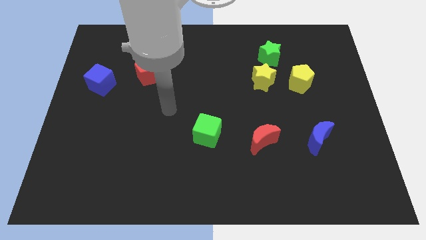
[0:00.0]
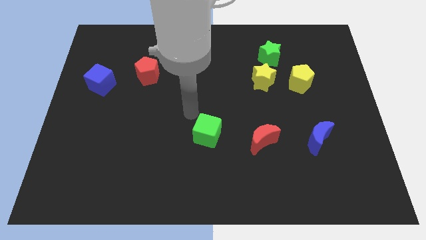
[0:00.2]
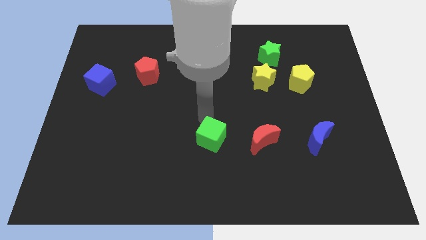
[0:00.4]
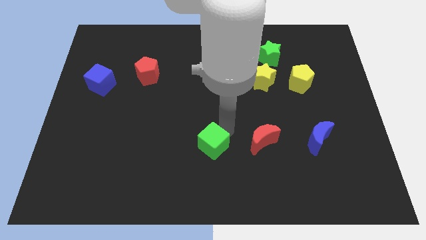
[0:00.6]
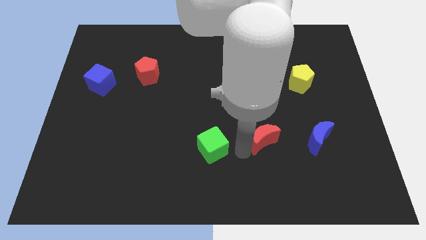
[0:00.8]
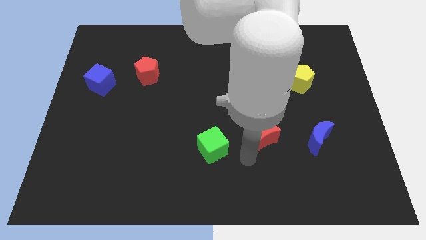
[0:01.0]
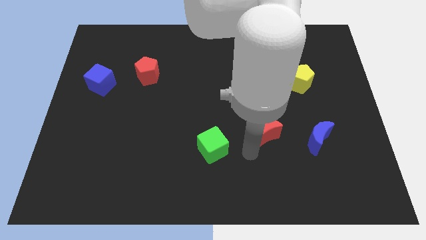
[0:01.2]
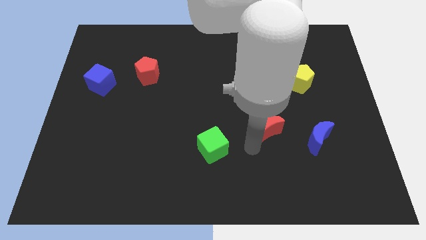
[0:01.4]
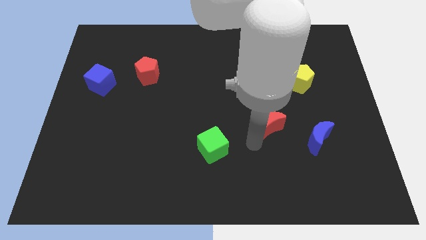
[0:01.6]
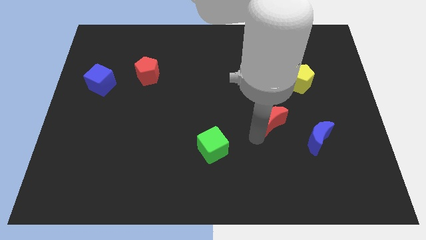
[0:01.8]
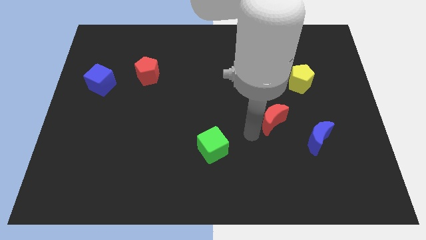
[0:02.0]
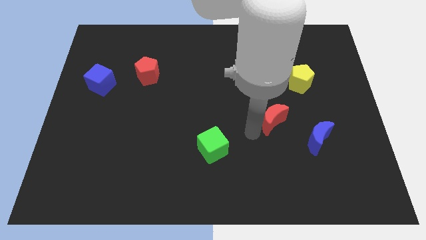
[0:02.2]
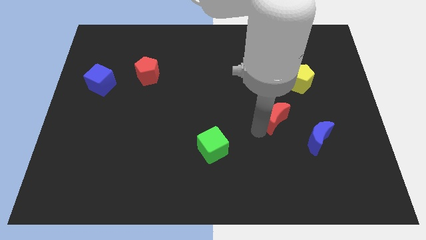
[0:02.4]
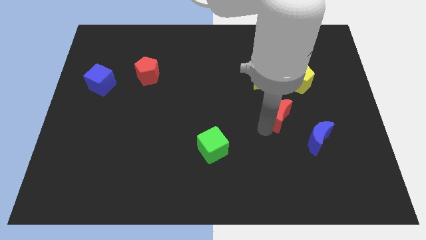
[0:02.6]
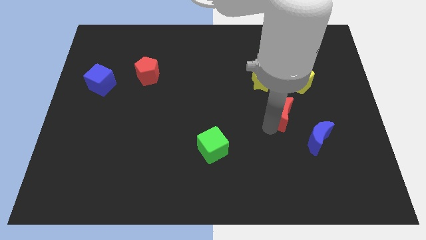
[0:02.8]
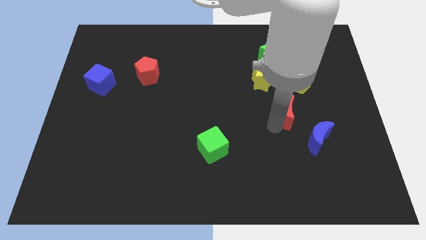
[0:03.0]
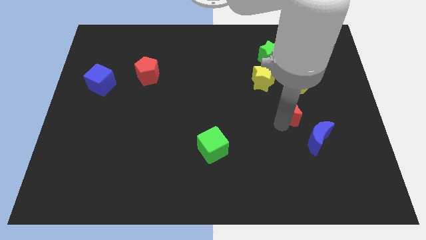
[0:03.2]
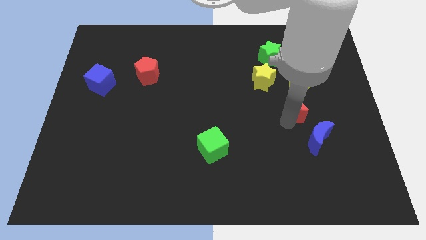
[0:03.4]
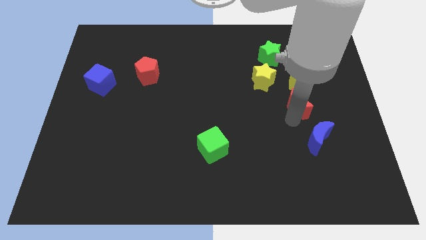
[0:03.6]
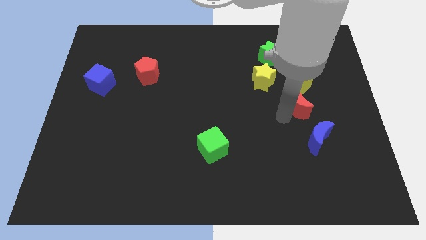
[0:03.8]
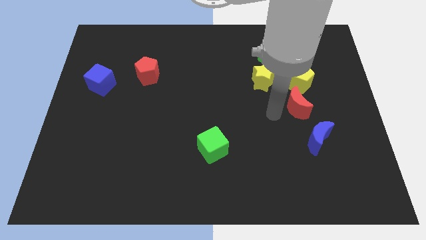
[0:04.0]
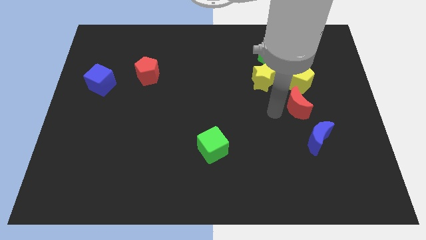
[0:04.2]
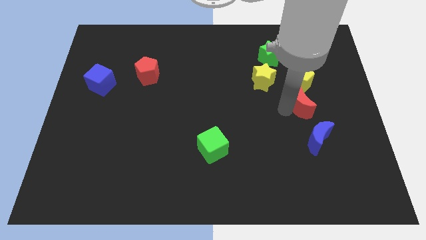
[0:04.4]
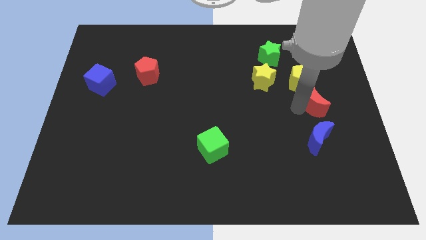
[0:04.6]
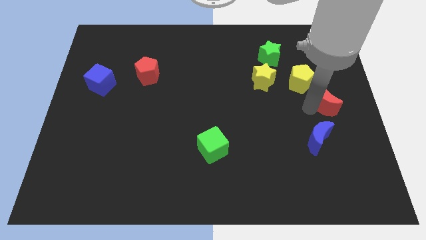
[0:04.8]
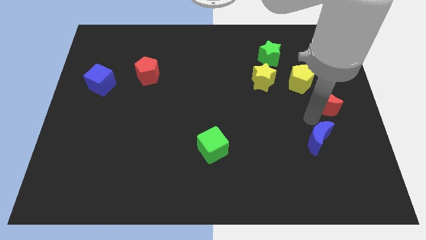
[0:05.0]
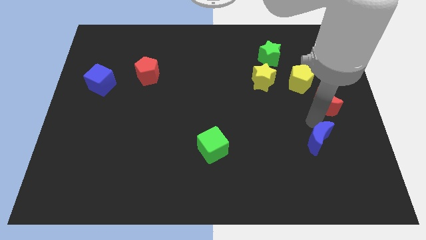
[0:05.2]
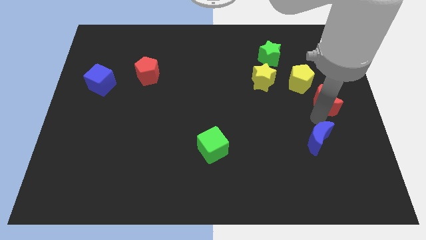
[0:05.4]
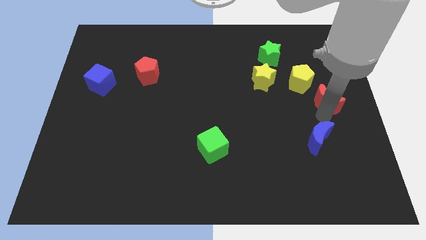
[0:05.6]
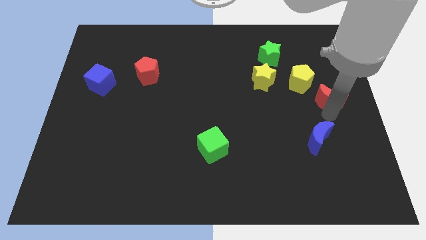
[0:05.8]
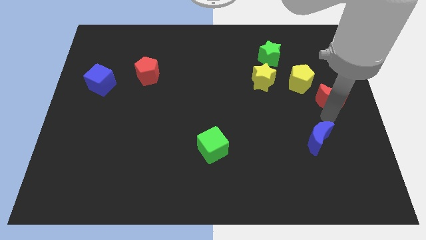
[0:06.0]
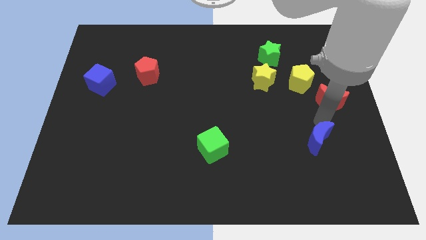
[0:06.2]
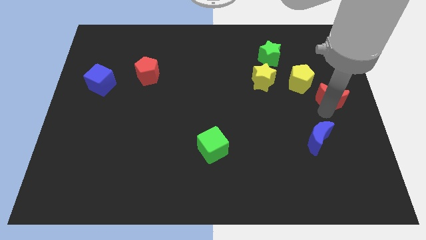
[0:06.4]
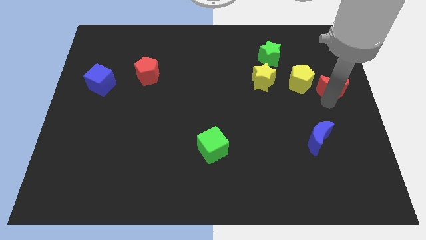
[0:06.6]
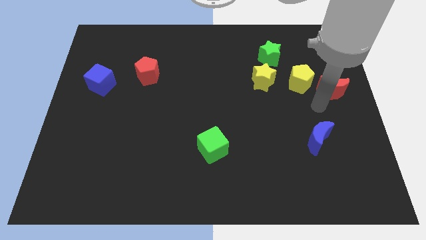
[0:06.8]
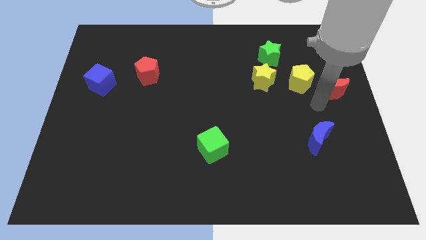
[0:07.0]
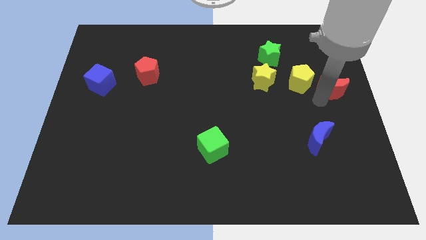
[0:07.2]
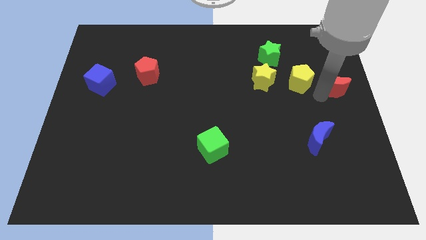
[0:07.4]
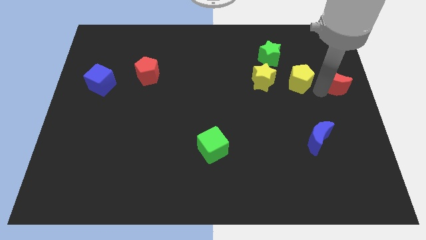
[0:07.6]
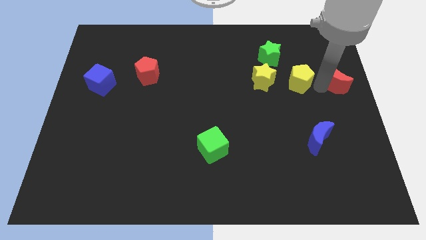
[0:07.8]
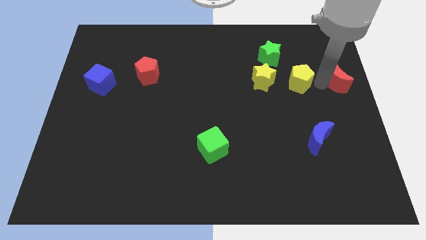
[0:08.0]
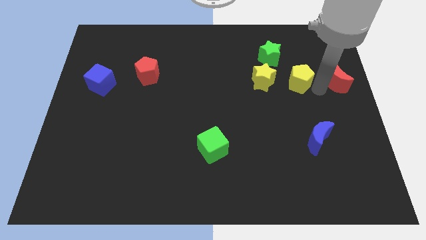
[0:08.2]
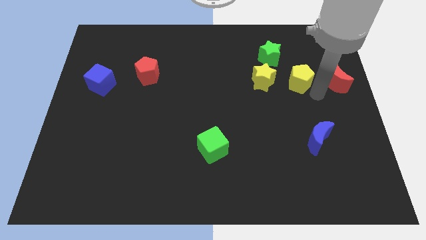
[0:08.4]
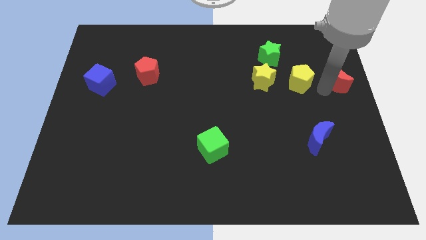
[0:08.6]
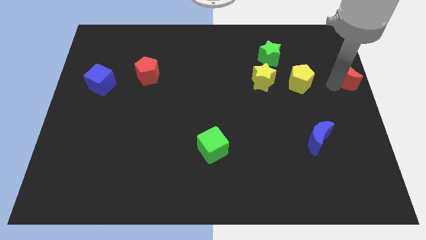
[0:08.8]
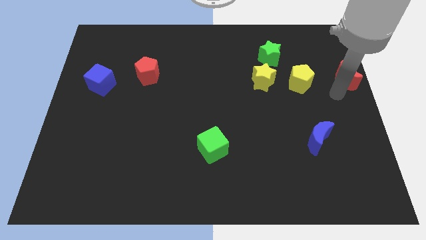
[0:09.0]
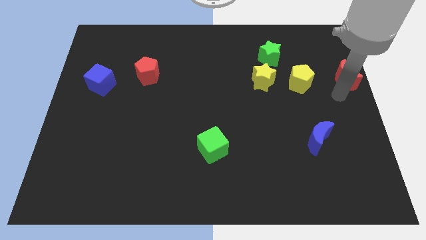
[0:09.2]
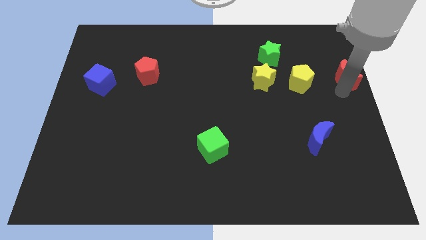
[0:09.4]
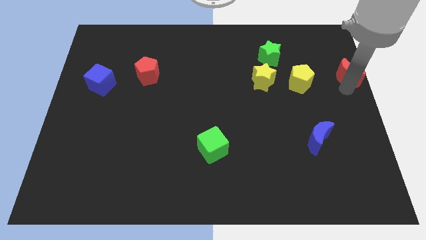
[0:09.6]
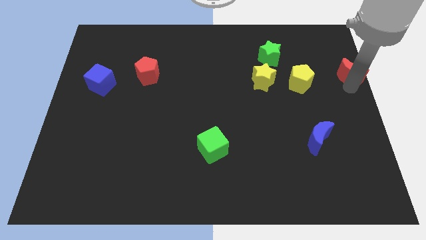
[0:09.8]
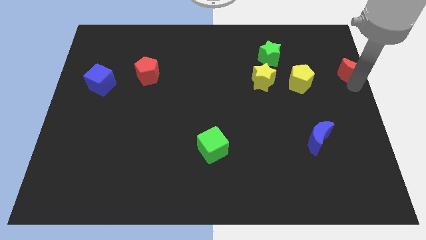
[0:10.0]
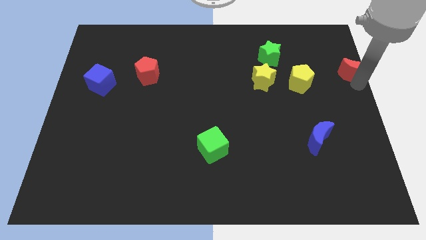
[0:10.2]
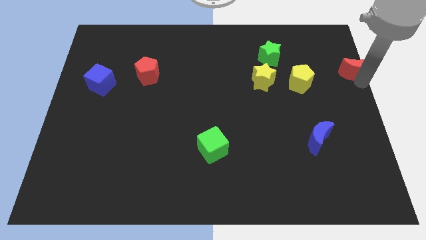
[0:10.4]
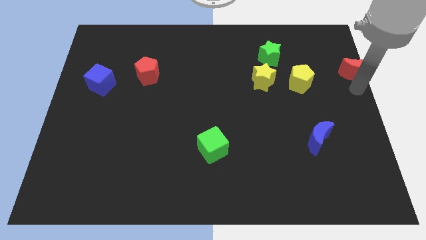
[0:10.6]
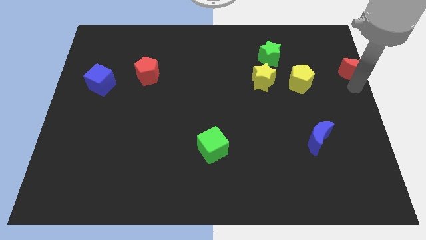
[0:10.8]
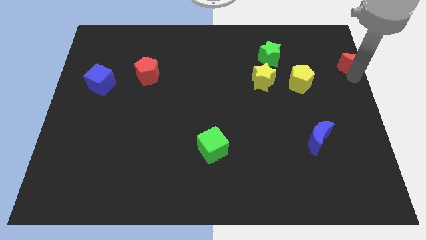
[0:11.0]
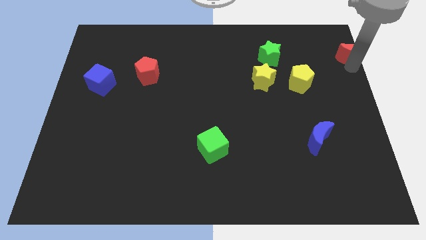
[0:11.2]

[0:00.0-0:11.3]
move the red moon to the top right of the board

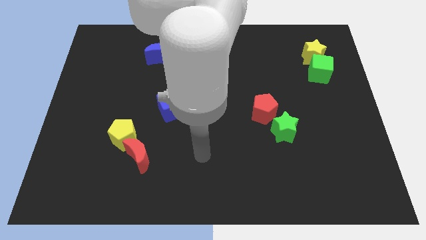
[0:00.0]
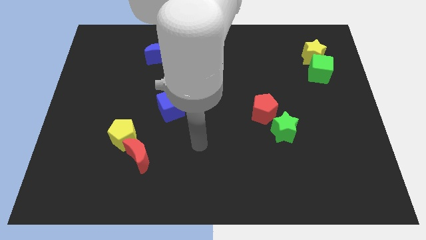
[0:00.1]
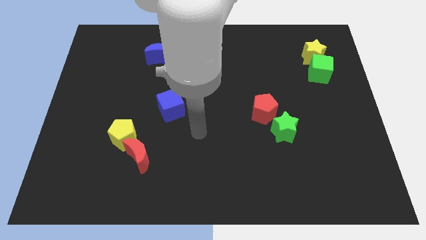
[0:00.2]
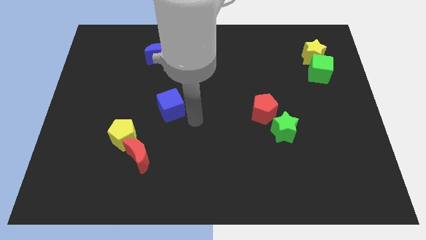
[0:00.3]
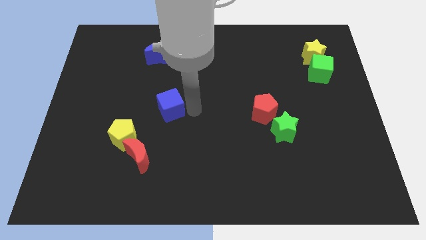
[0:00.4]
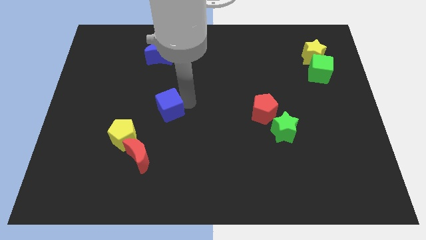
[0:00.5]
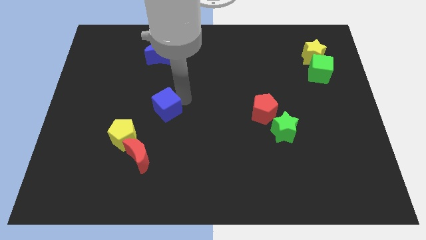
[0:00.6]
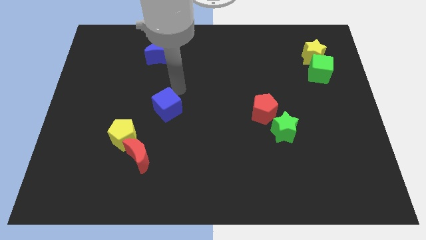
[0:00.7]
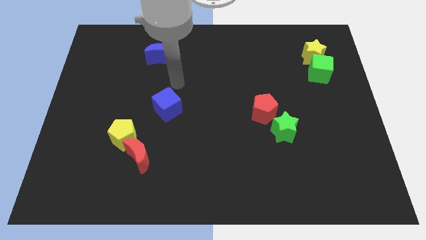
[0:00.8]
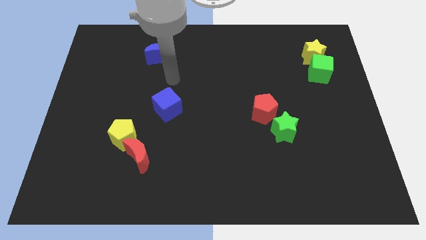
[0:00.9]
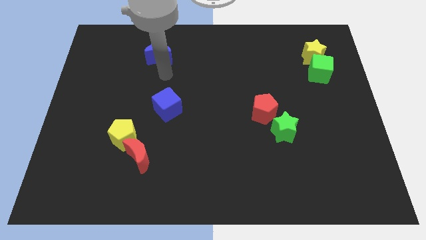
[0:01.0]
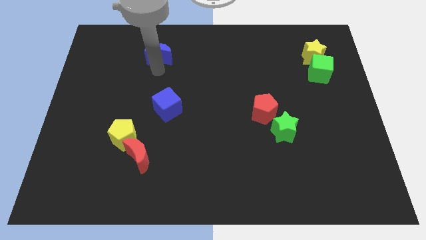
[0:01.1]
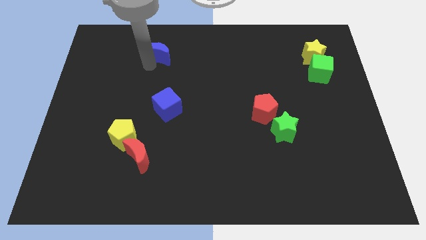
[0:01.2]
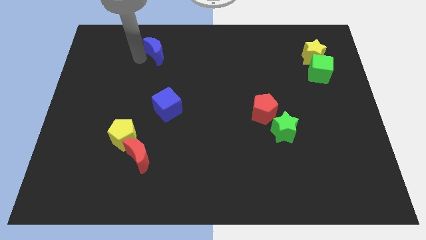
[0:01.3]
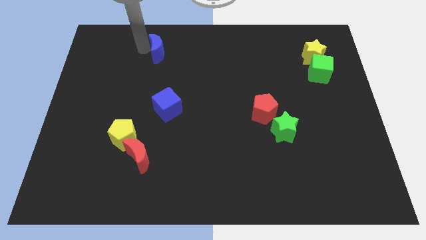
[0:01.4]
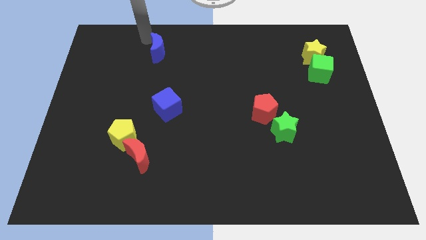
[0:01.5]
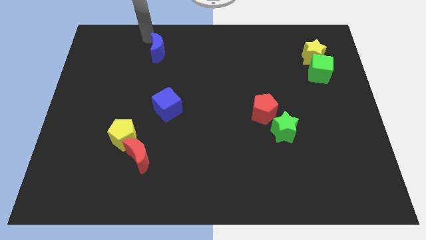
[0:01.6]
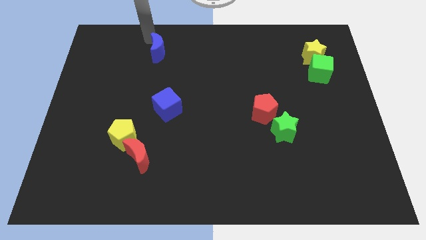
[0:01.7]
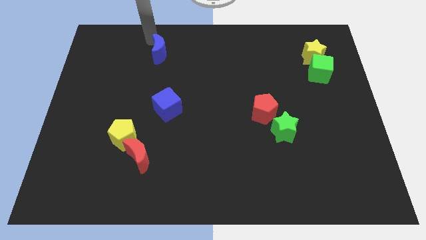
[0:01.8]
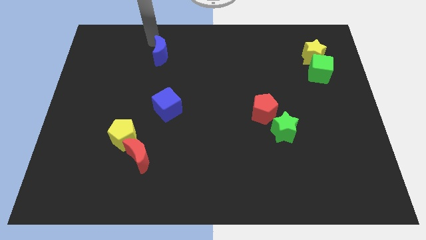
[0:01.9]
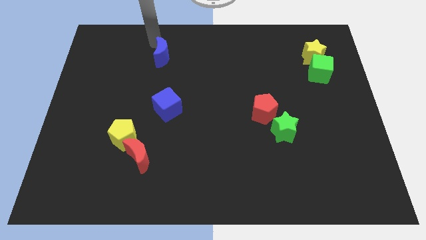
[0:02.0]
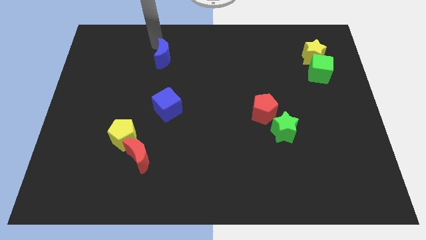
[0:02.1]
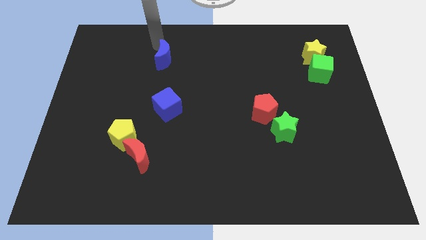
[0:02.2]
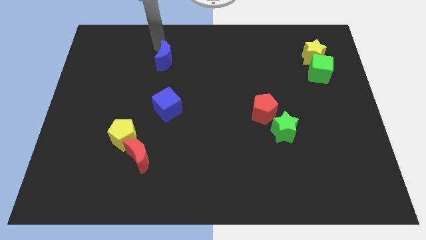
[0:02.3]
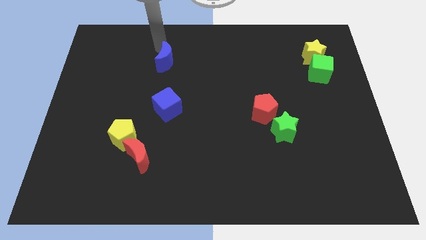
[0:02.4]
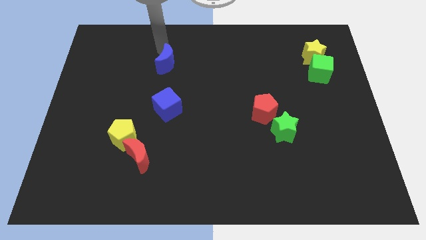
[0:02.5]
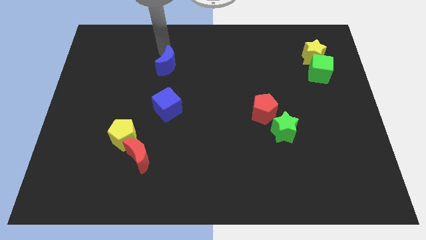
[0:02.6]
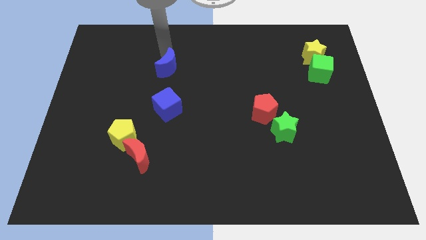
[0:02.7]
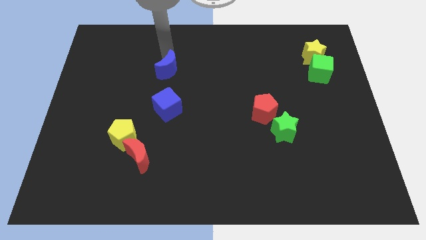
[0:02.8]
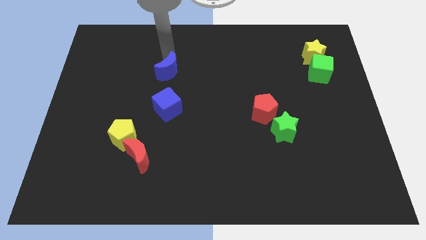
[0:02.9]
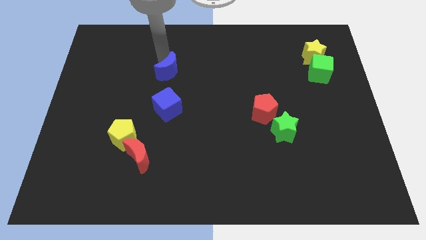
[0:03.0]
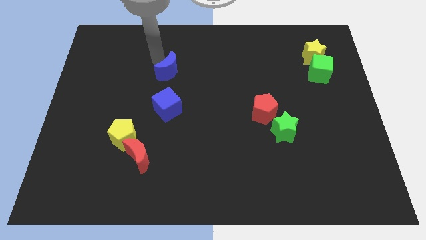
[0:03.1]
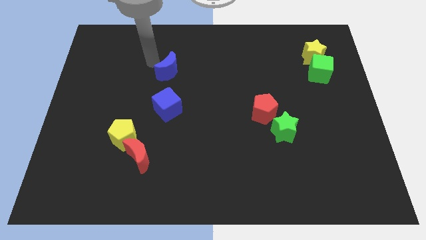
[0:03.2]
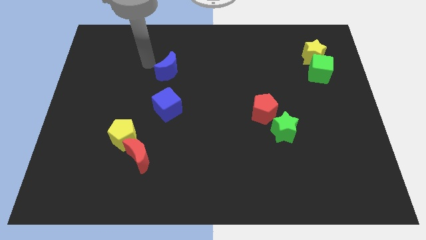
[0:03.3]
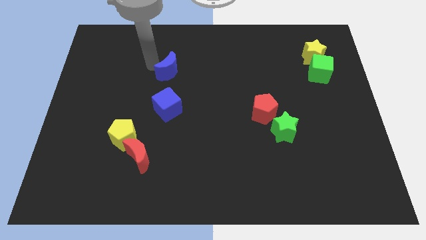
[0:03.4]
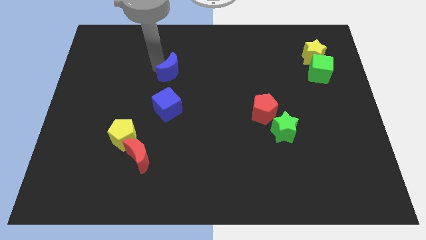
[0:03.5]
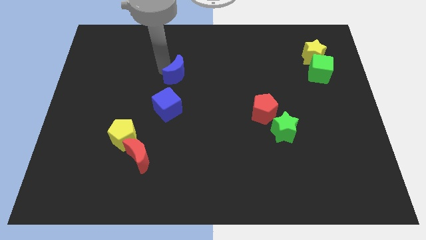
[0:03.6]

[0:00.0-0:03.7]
slide the blue moon to the center of the board
